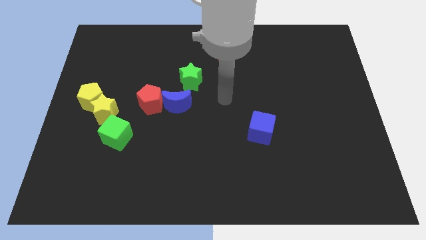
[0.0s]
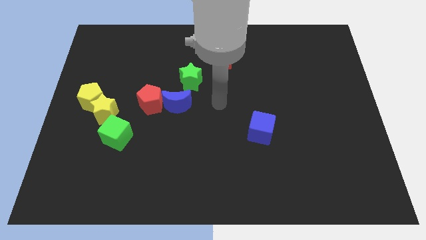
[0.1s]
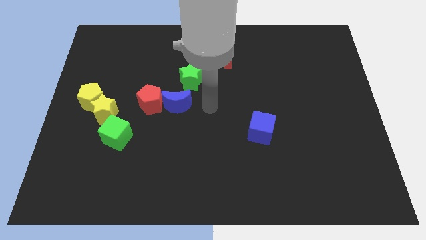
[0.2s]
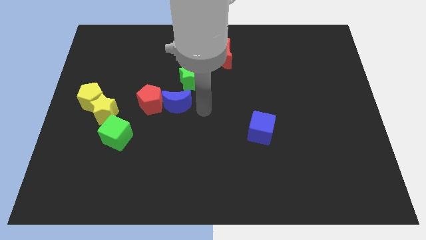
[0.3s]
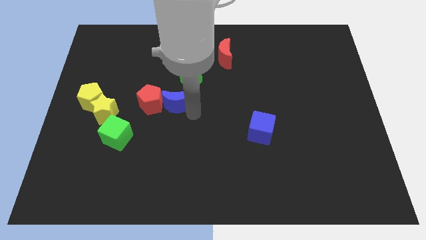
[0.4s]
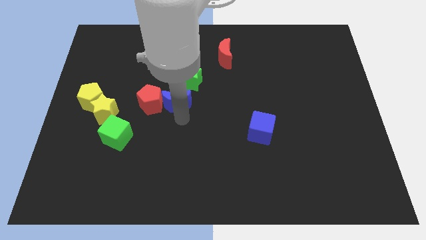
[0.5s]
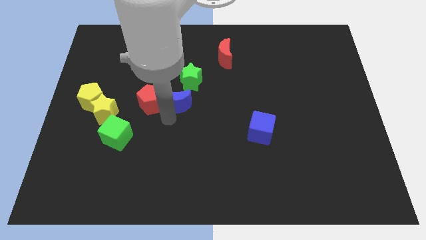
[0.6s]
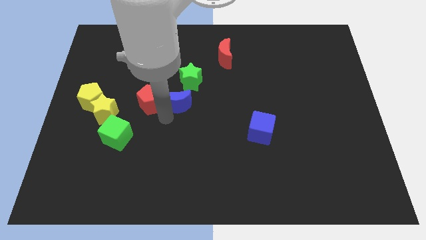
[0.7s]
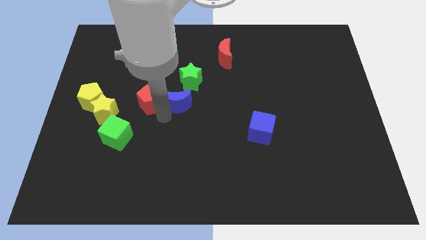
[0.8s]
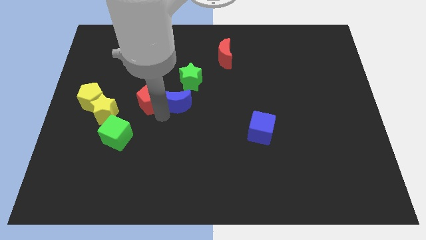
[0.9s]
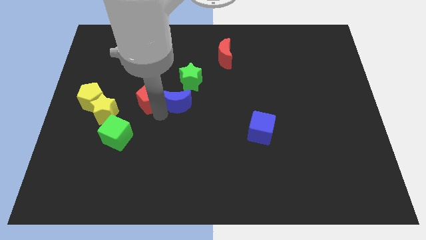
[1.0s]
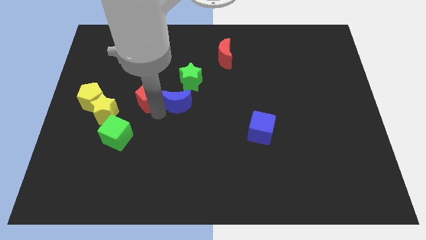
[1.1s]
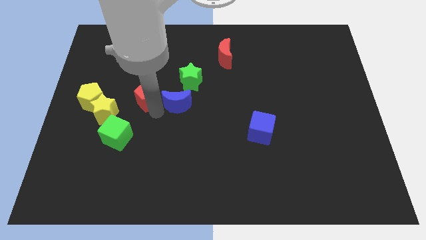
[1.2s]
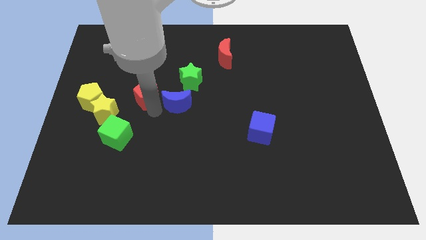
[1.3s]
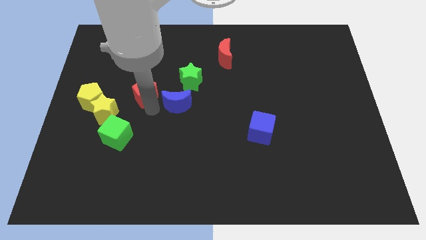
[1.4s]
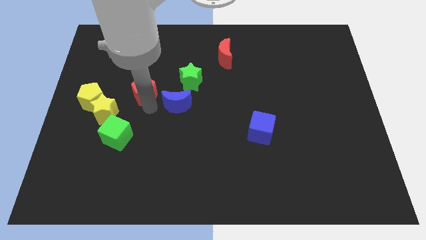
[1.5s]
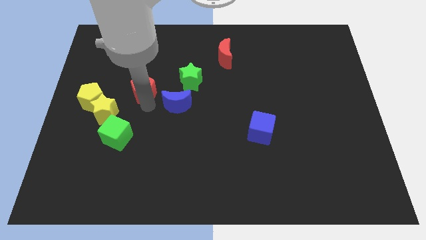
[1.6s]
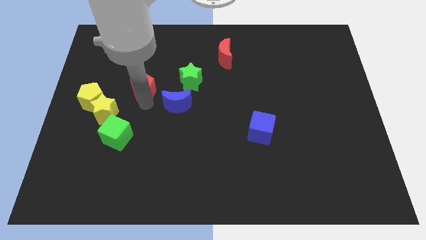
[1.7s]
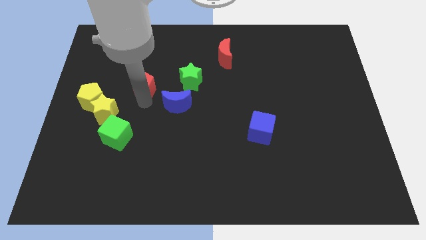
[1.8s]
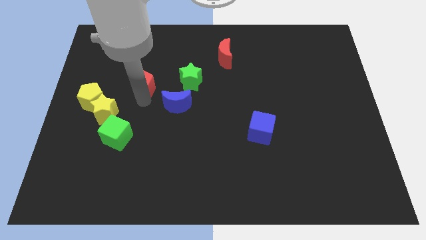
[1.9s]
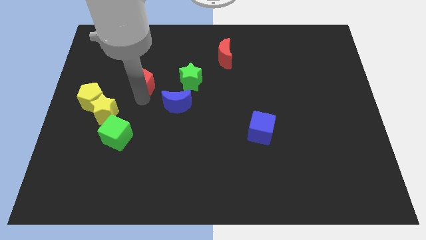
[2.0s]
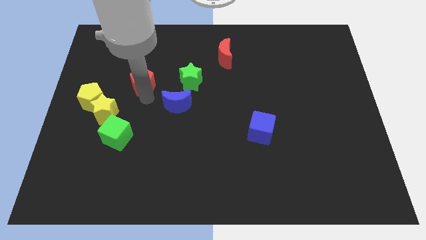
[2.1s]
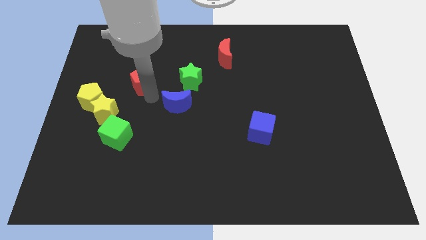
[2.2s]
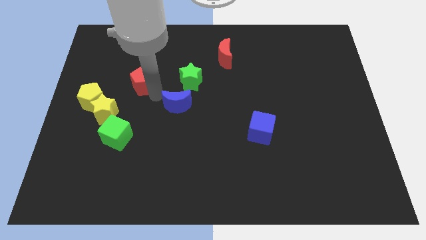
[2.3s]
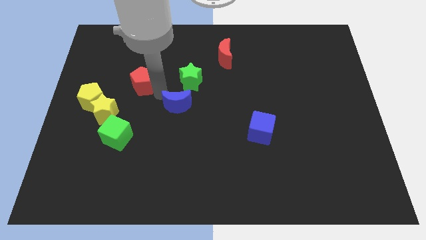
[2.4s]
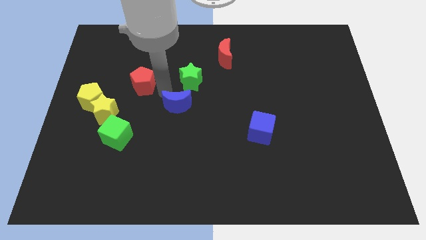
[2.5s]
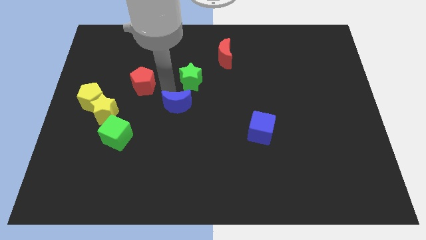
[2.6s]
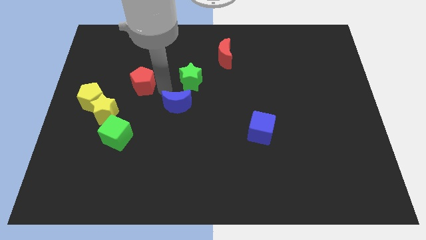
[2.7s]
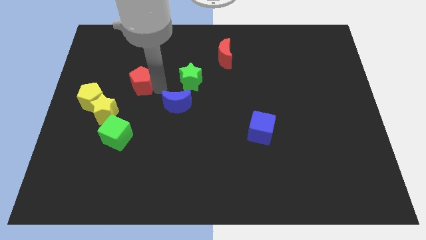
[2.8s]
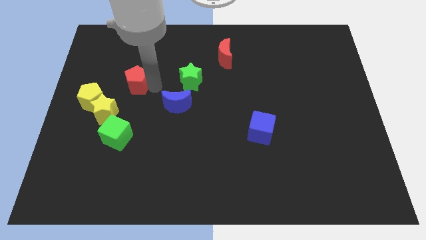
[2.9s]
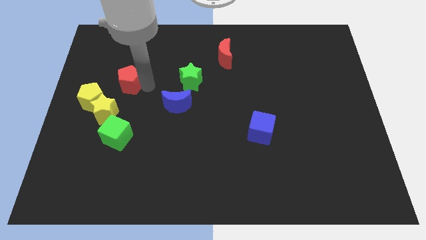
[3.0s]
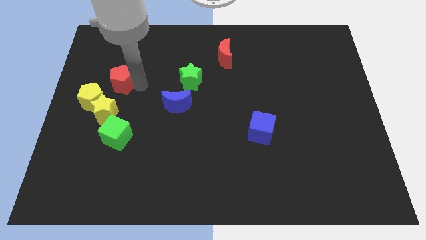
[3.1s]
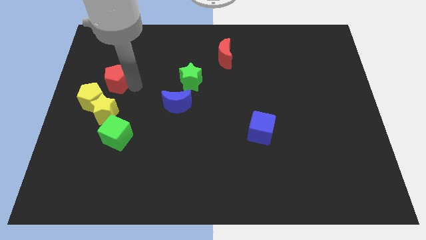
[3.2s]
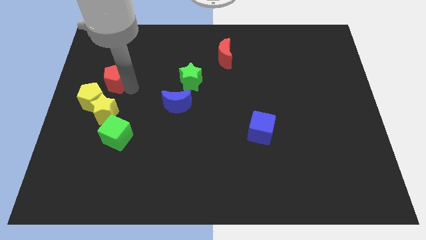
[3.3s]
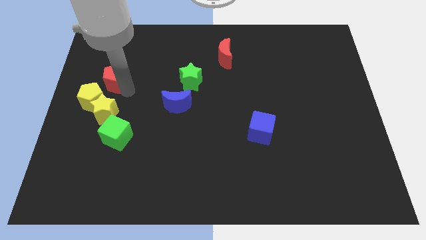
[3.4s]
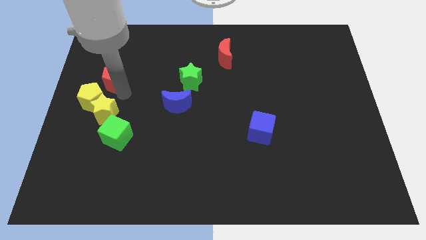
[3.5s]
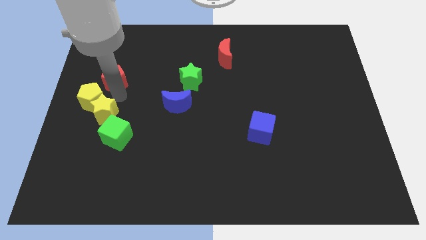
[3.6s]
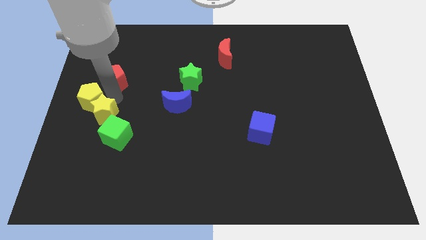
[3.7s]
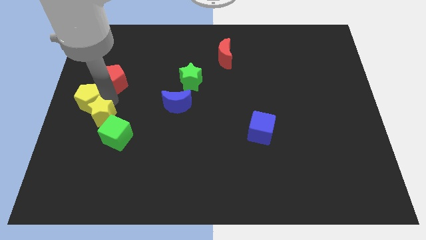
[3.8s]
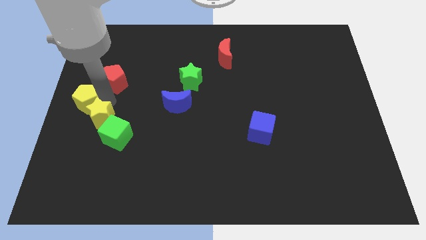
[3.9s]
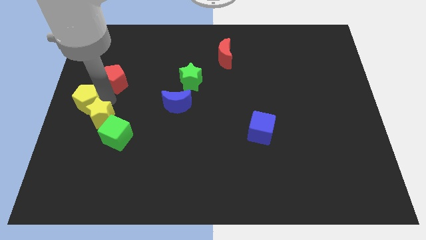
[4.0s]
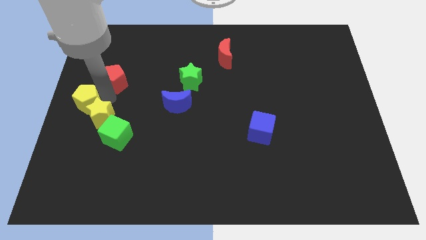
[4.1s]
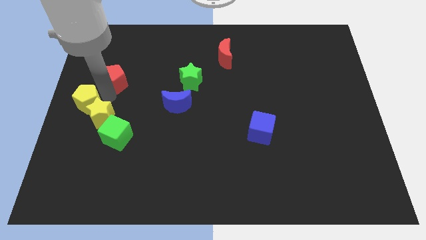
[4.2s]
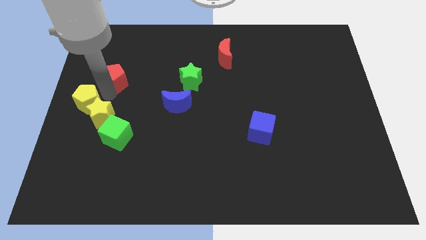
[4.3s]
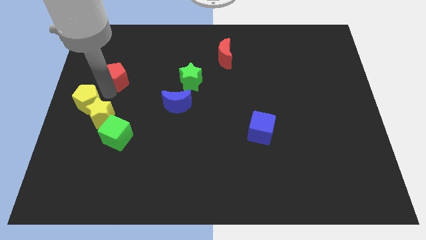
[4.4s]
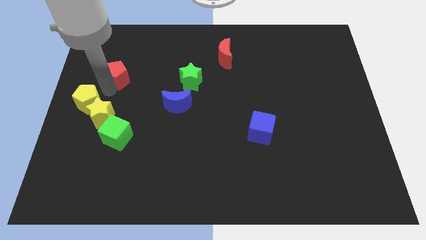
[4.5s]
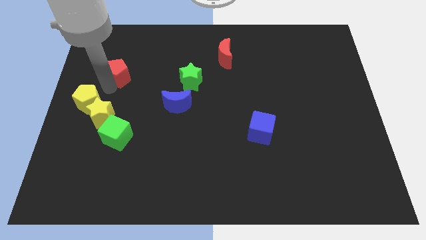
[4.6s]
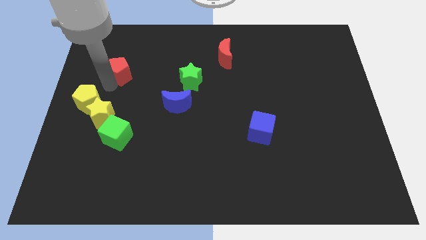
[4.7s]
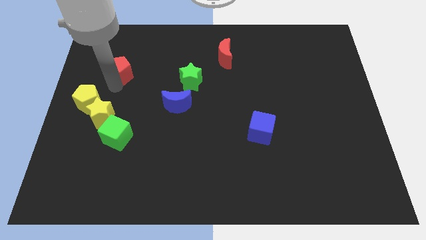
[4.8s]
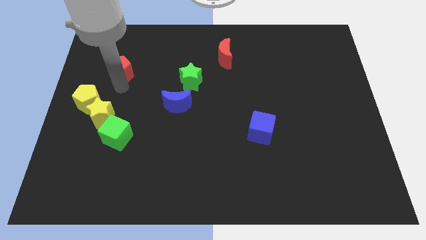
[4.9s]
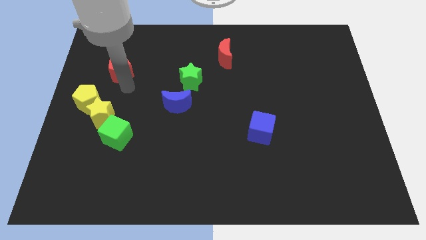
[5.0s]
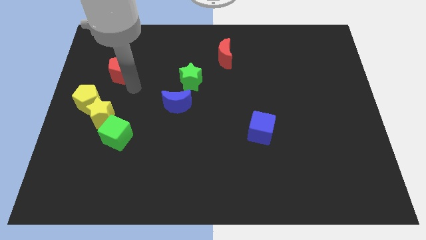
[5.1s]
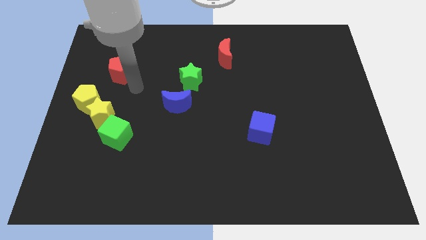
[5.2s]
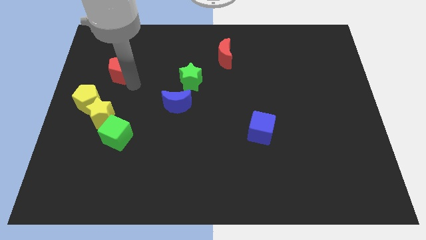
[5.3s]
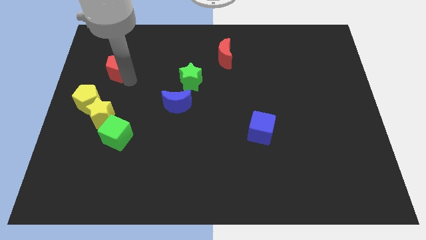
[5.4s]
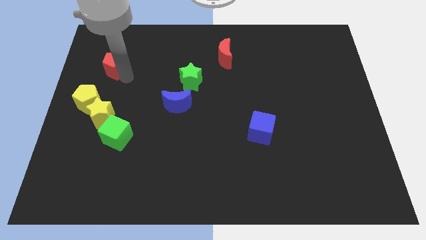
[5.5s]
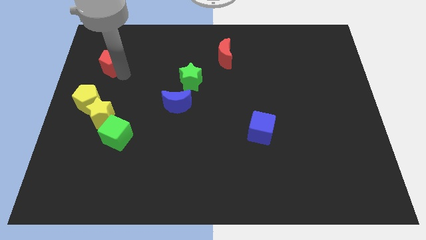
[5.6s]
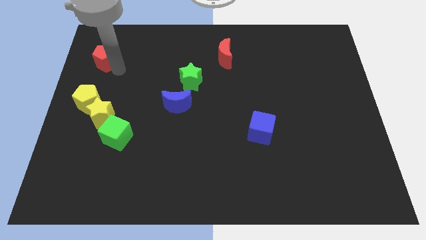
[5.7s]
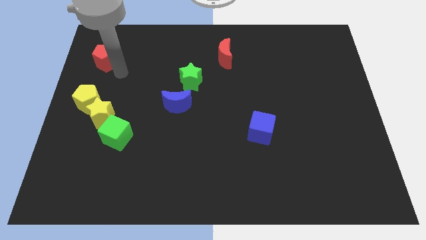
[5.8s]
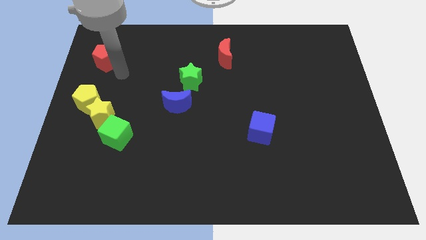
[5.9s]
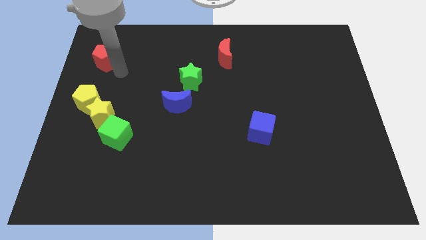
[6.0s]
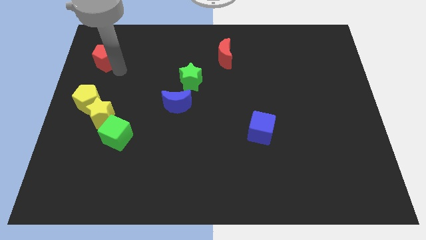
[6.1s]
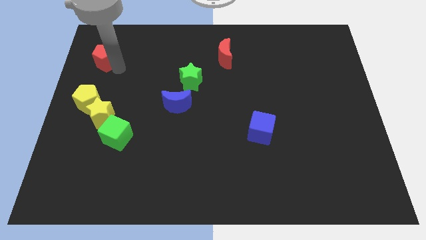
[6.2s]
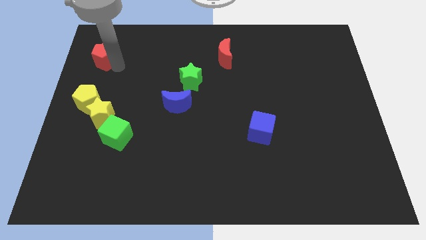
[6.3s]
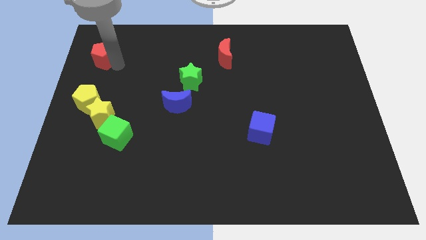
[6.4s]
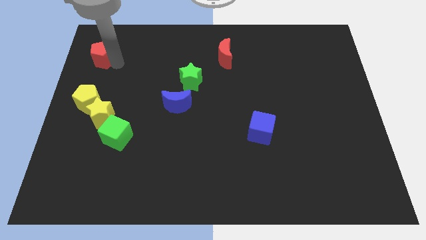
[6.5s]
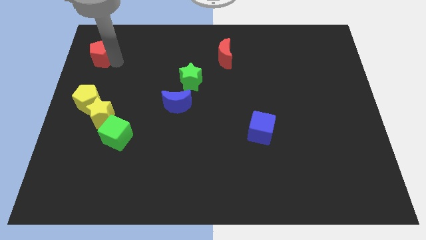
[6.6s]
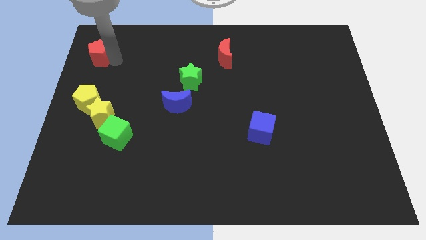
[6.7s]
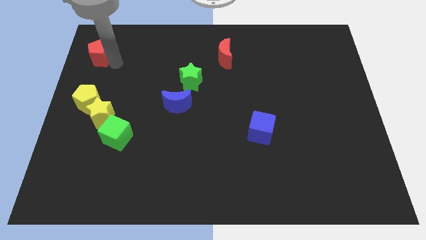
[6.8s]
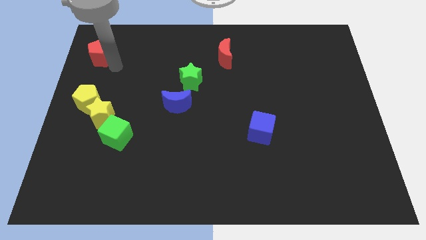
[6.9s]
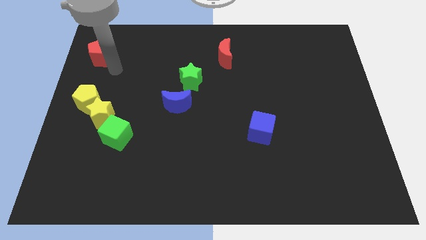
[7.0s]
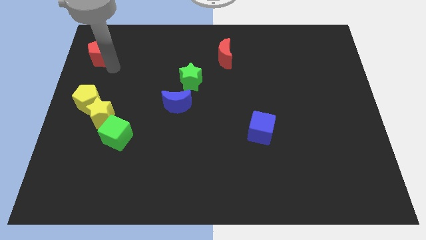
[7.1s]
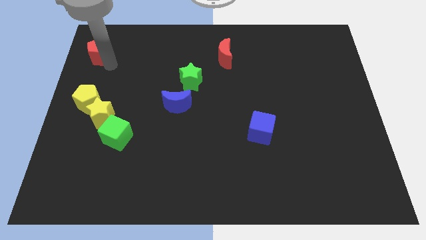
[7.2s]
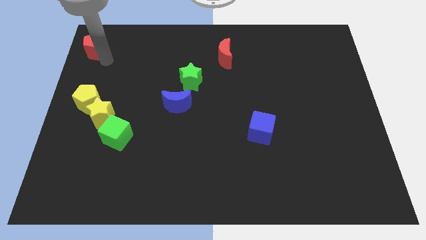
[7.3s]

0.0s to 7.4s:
move the red pentagon to the top left corner
